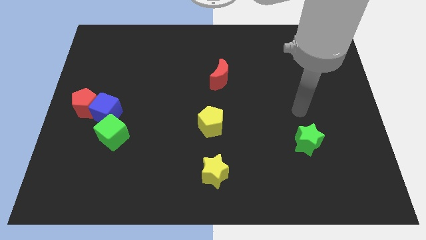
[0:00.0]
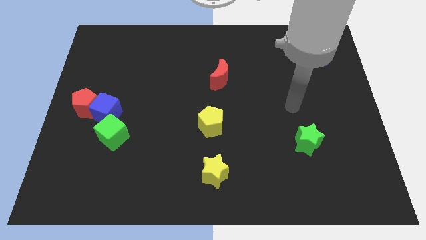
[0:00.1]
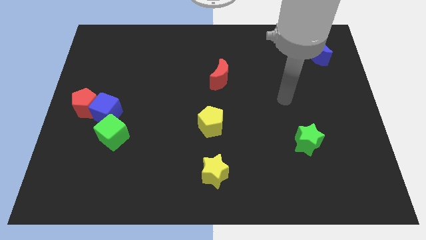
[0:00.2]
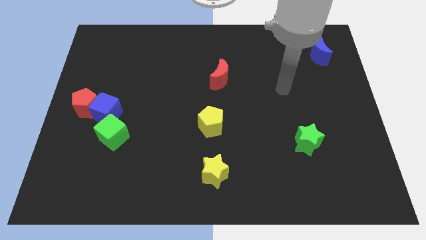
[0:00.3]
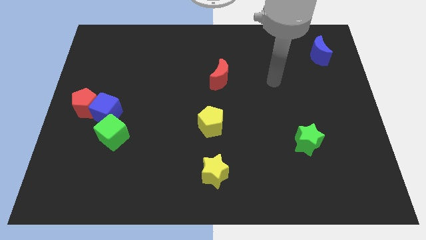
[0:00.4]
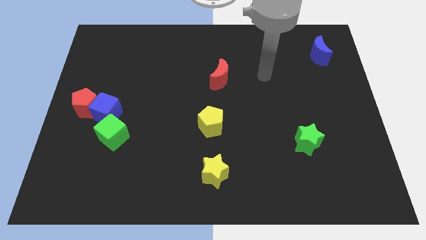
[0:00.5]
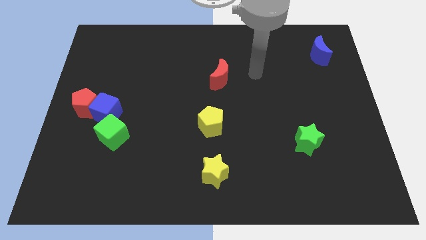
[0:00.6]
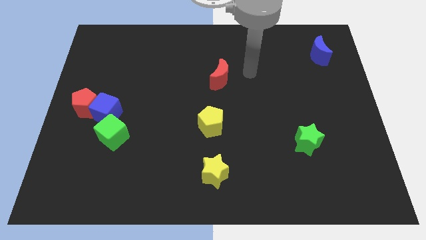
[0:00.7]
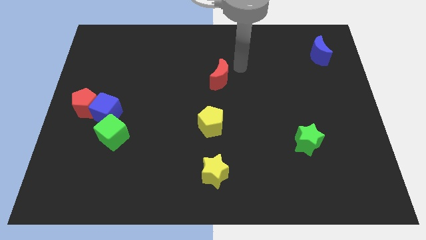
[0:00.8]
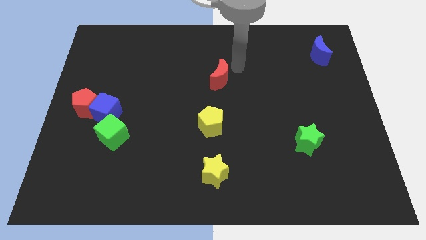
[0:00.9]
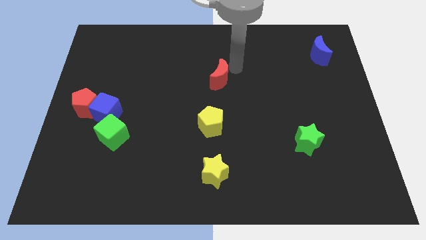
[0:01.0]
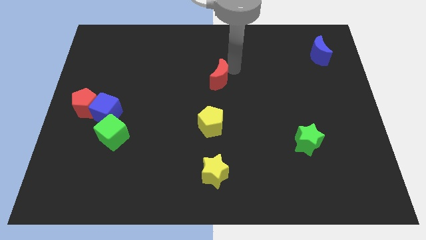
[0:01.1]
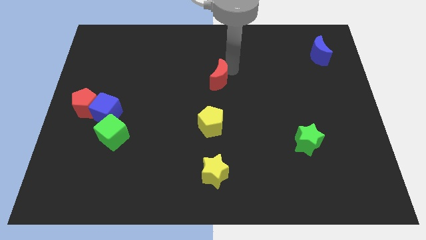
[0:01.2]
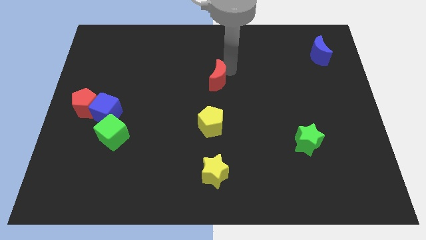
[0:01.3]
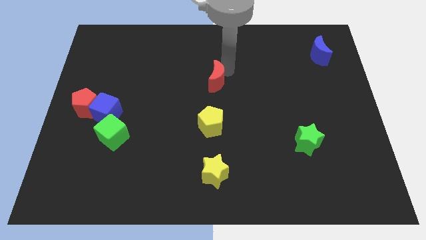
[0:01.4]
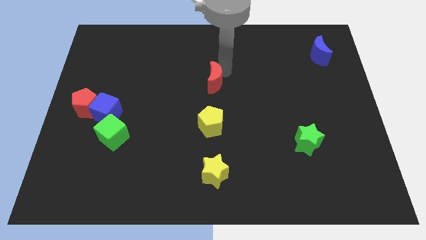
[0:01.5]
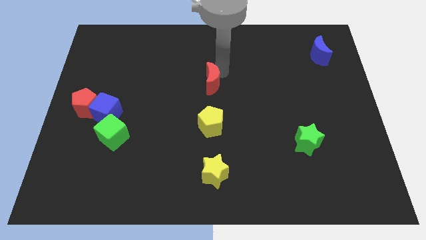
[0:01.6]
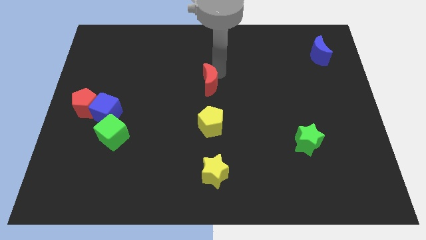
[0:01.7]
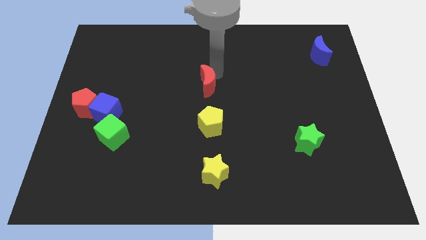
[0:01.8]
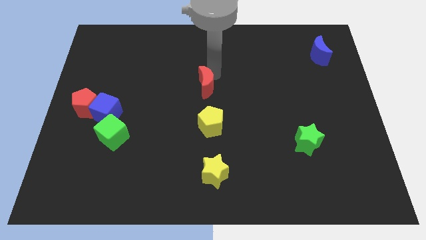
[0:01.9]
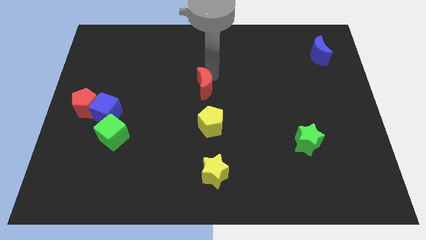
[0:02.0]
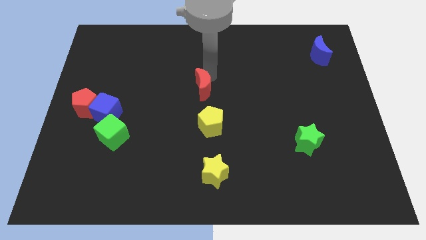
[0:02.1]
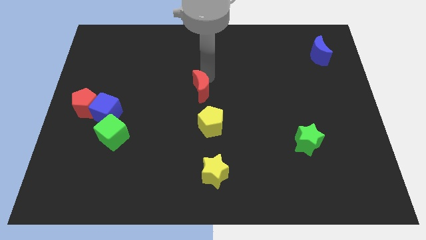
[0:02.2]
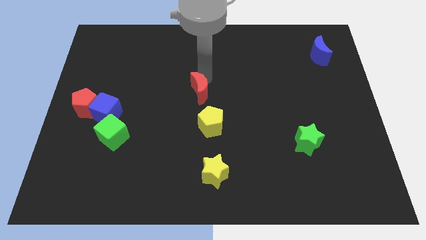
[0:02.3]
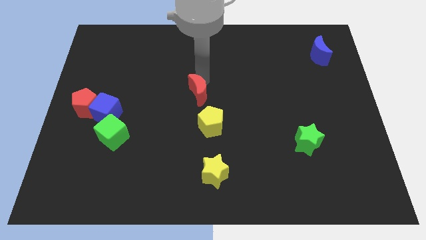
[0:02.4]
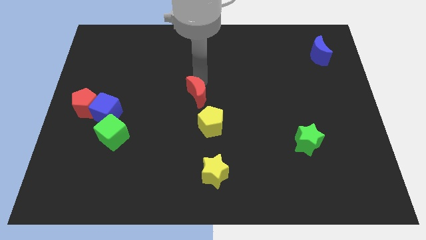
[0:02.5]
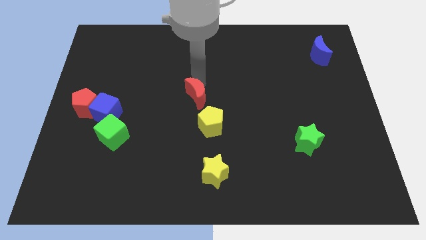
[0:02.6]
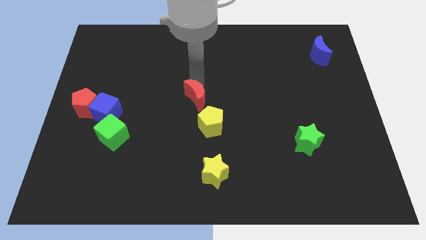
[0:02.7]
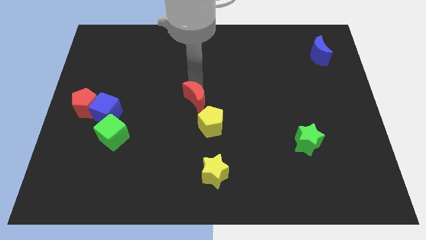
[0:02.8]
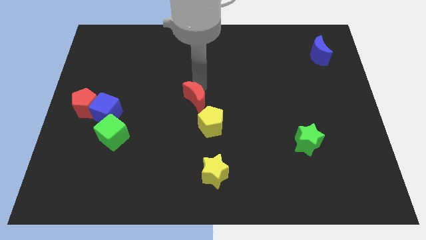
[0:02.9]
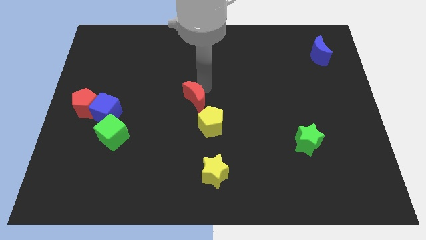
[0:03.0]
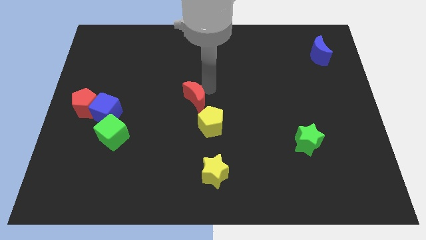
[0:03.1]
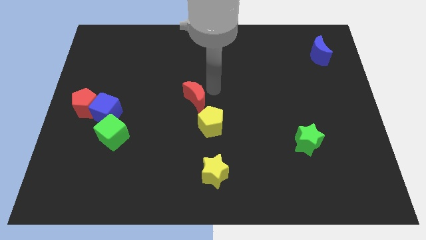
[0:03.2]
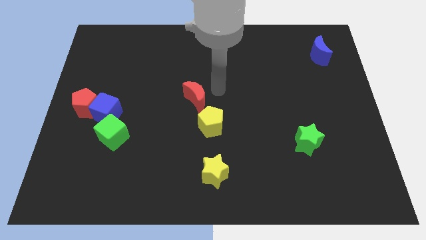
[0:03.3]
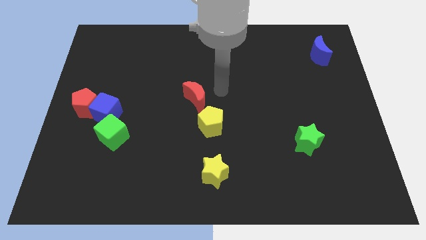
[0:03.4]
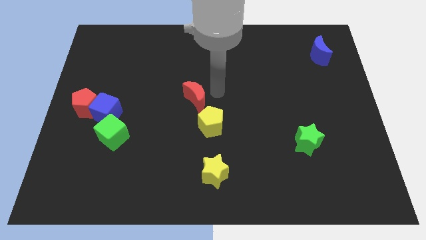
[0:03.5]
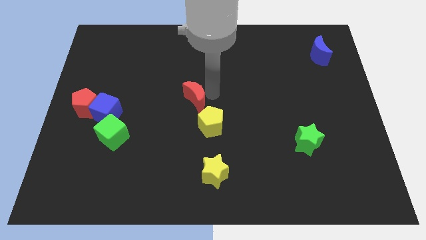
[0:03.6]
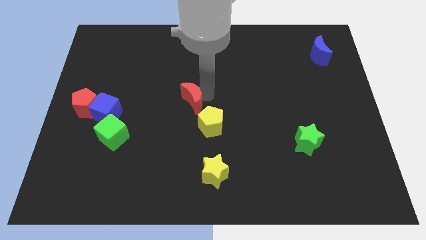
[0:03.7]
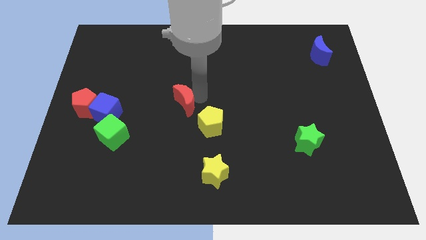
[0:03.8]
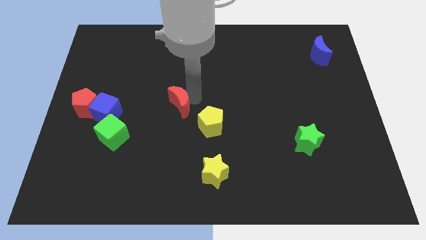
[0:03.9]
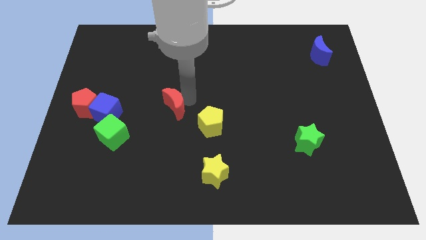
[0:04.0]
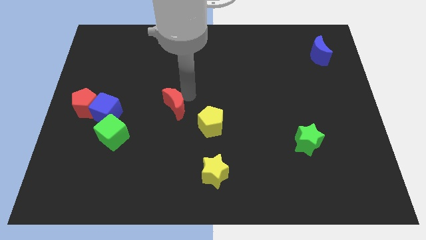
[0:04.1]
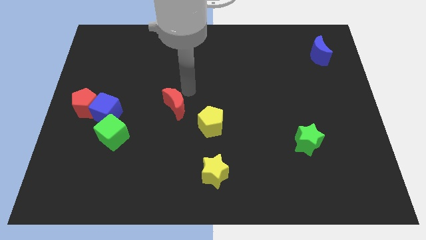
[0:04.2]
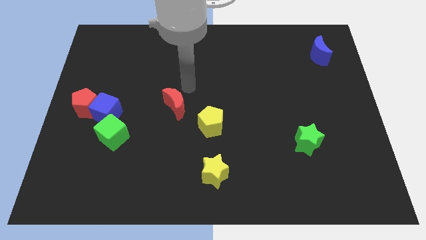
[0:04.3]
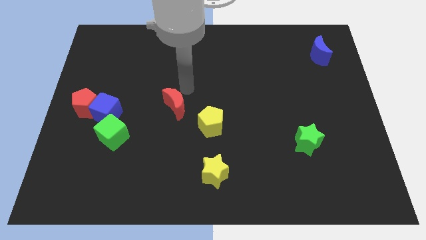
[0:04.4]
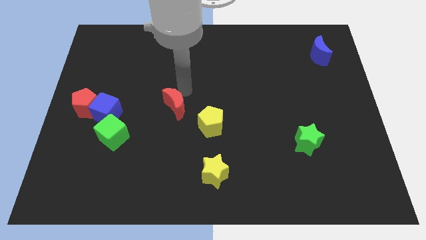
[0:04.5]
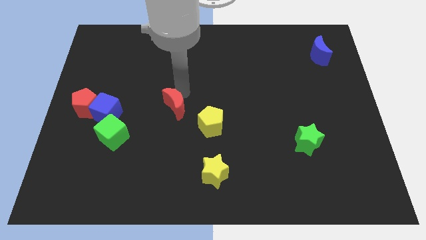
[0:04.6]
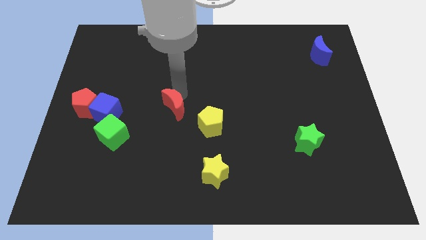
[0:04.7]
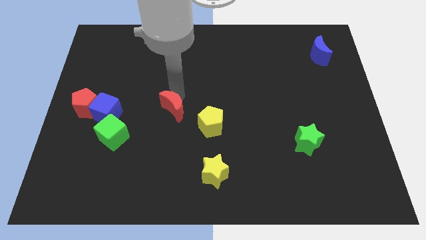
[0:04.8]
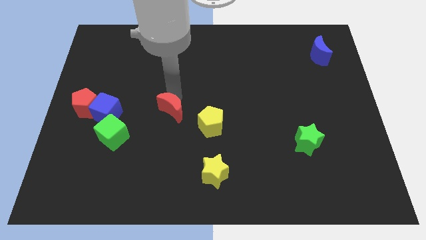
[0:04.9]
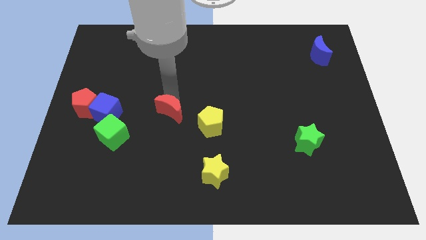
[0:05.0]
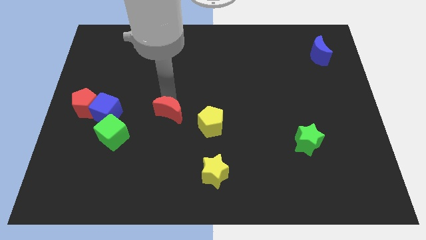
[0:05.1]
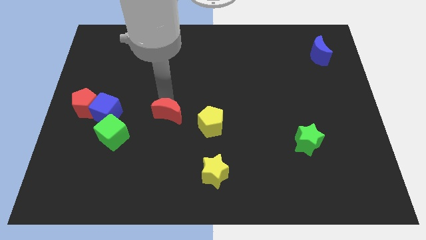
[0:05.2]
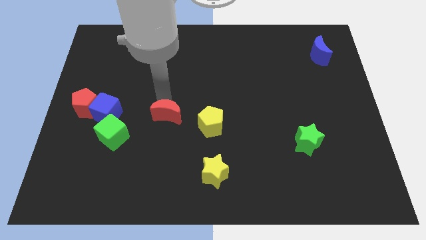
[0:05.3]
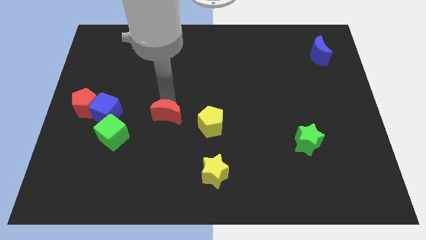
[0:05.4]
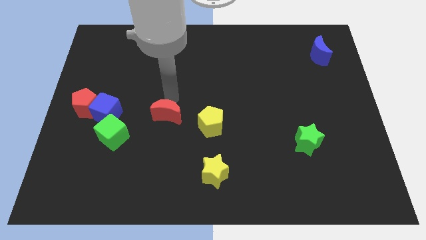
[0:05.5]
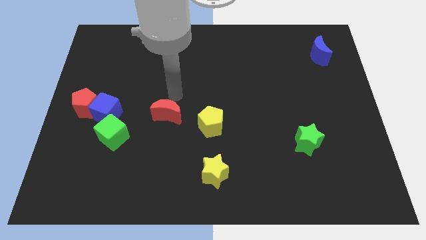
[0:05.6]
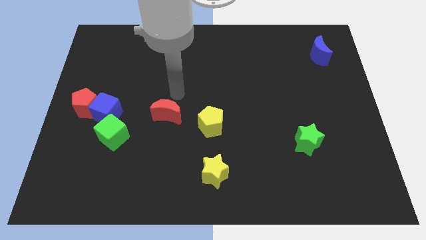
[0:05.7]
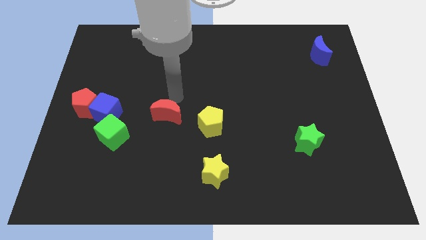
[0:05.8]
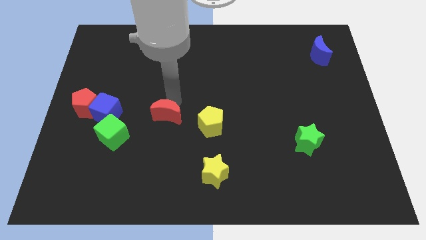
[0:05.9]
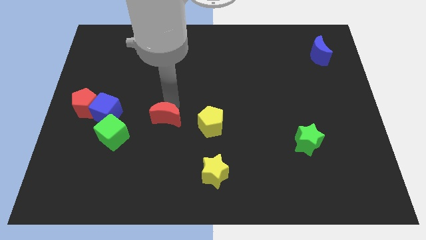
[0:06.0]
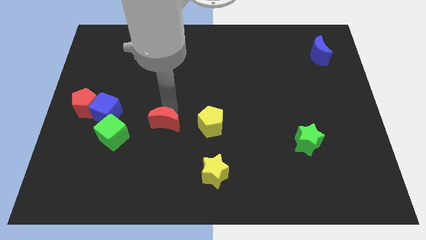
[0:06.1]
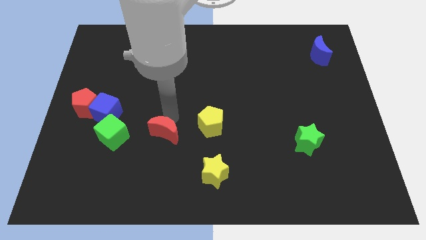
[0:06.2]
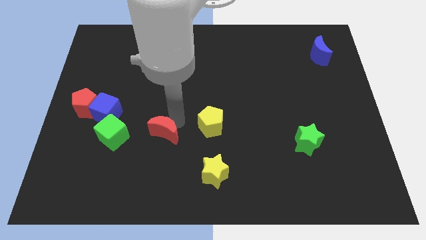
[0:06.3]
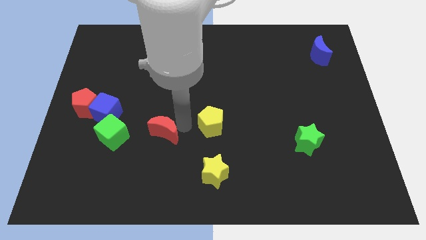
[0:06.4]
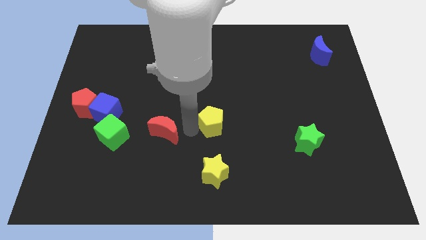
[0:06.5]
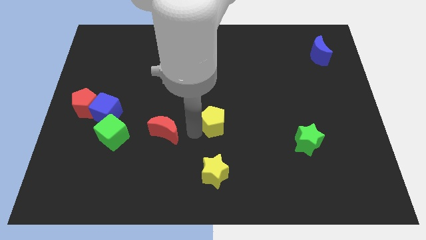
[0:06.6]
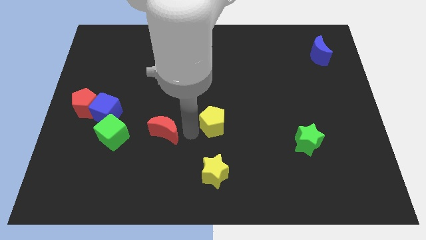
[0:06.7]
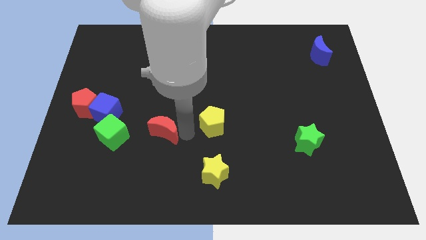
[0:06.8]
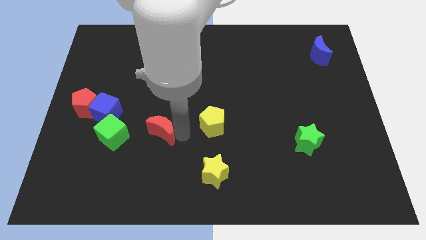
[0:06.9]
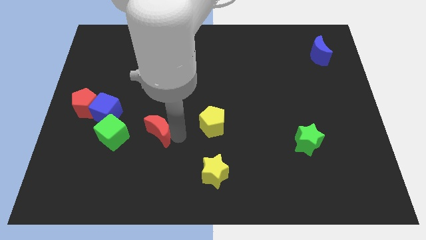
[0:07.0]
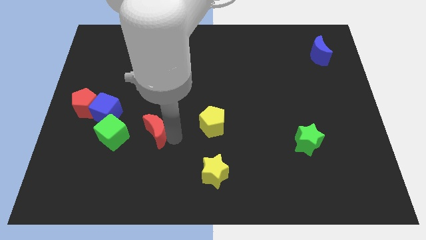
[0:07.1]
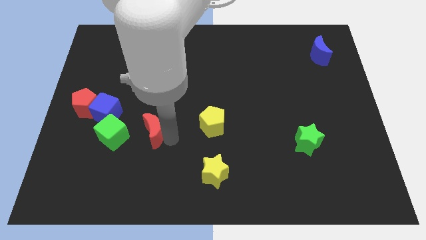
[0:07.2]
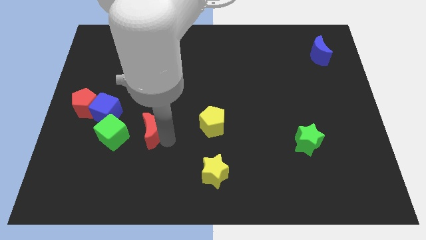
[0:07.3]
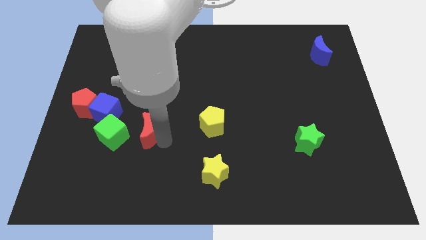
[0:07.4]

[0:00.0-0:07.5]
slide the red moon diagonally down and to the right of the blue cube
